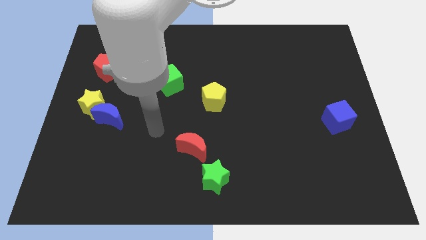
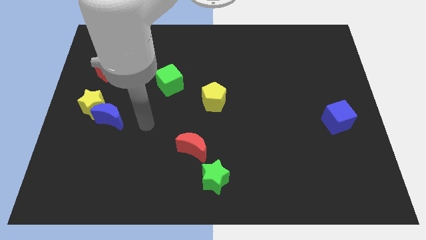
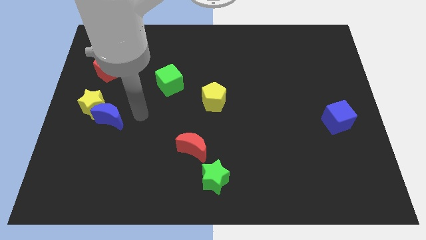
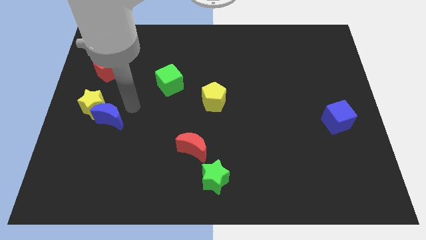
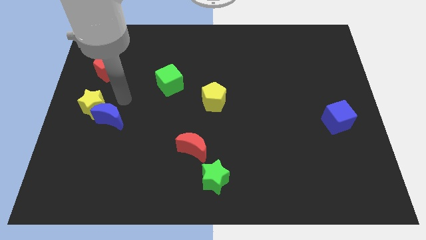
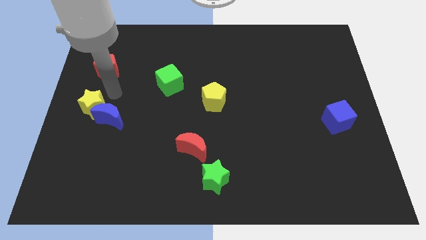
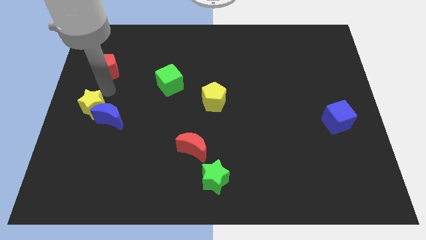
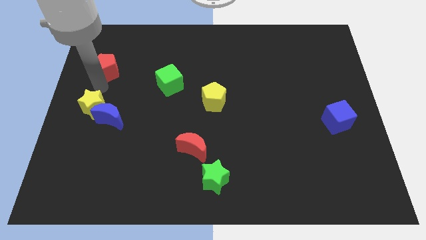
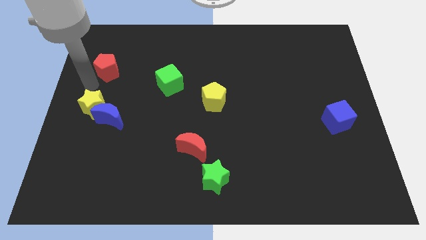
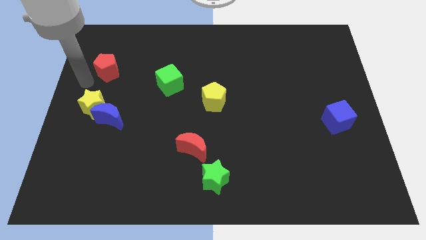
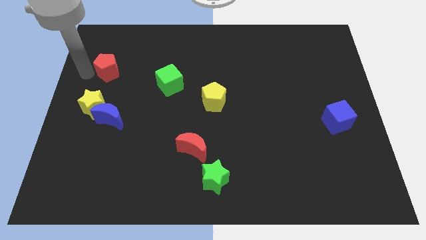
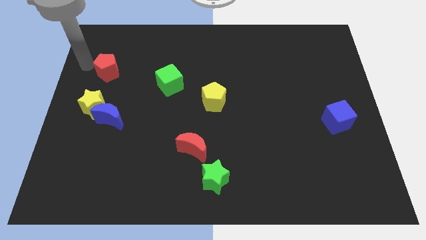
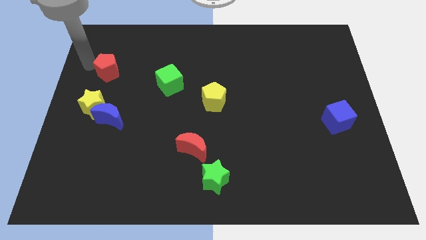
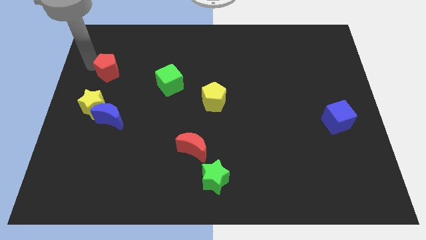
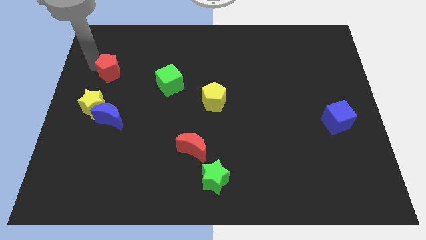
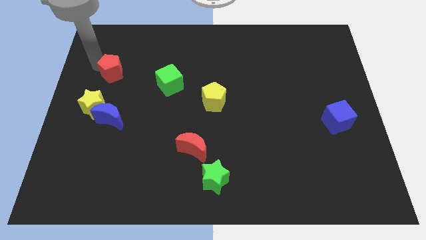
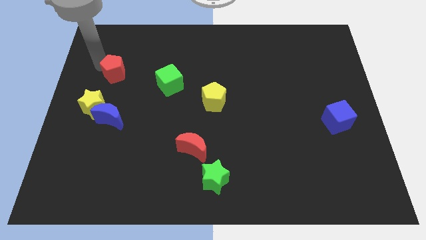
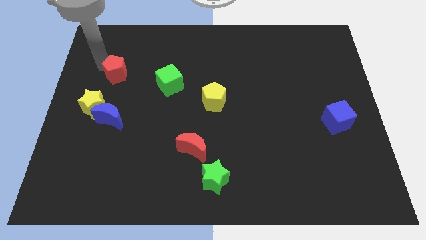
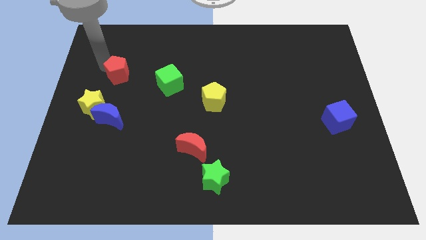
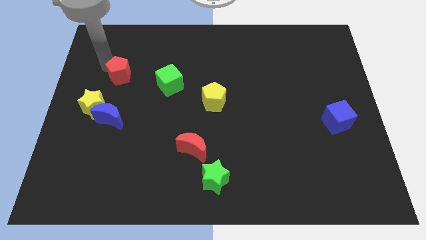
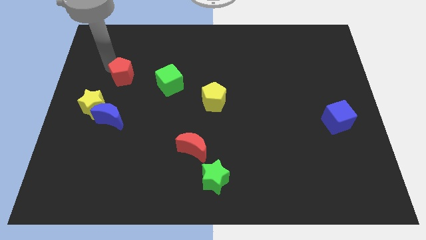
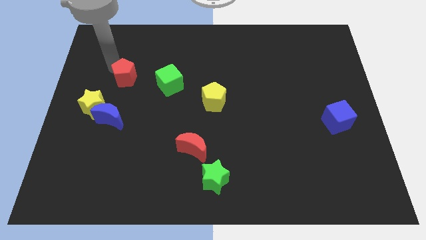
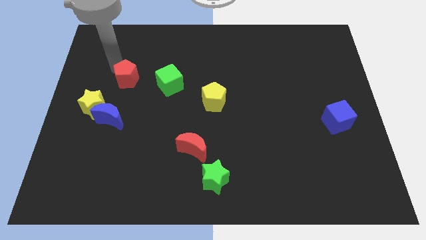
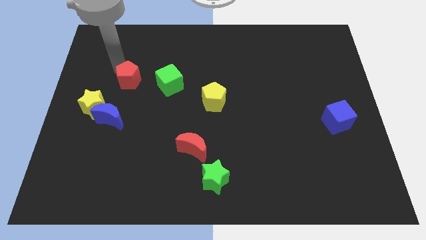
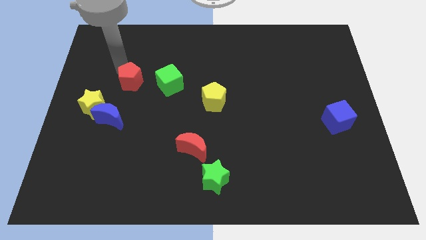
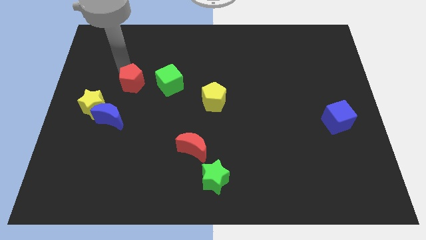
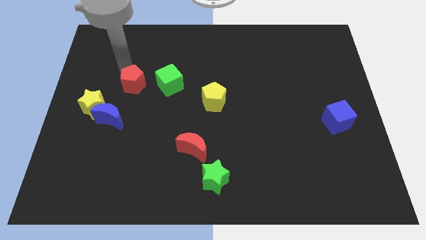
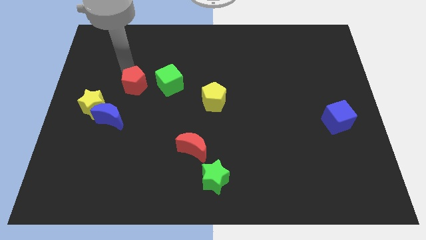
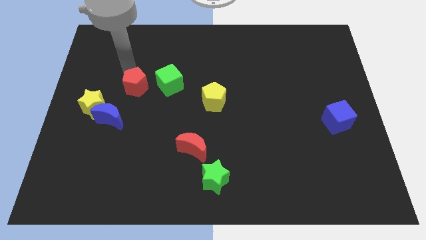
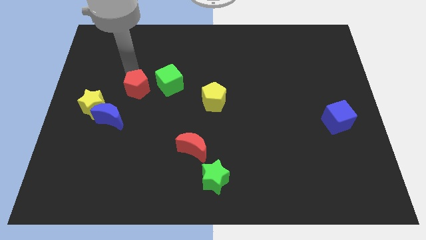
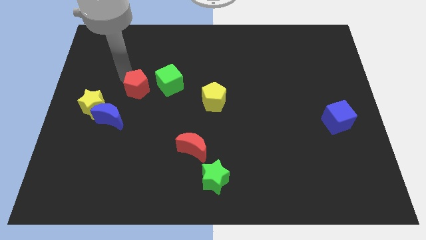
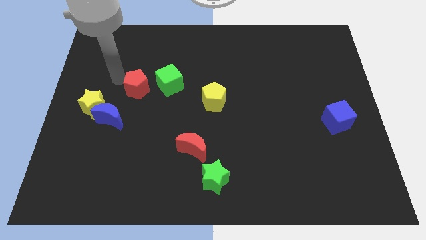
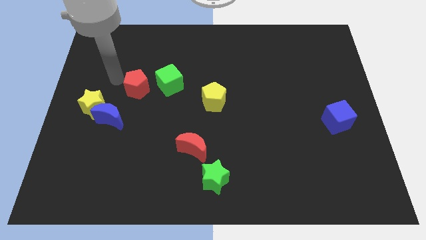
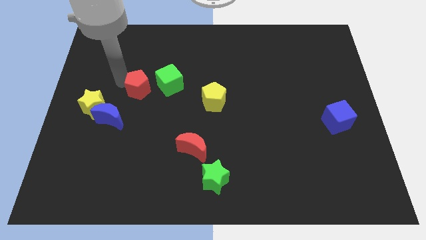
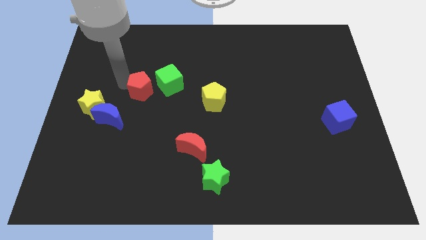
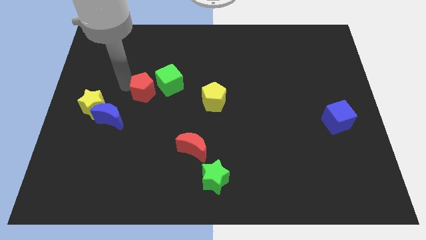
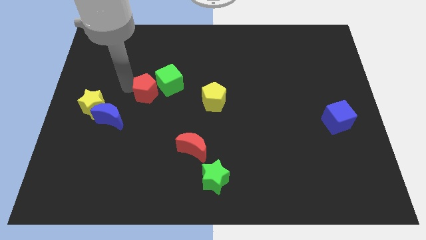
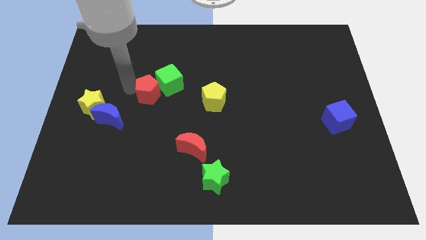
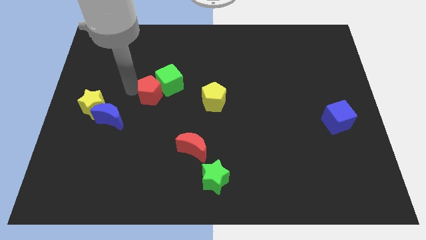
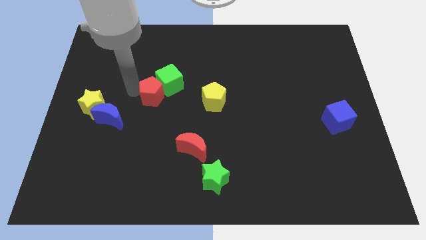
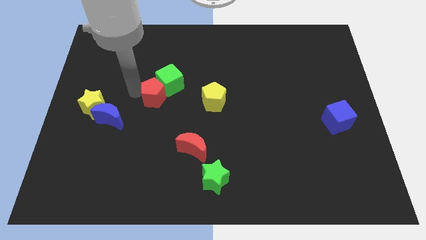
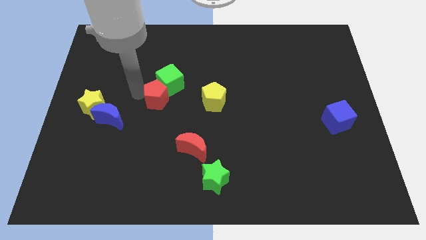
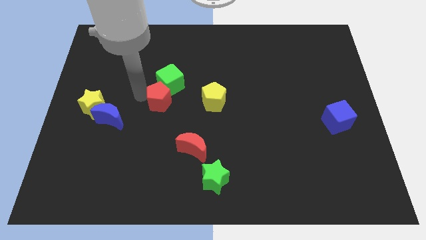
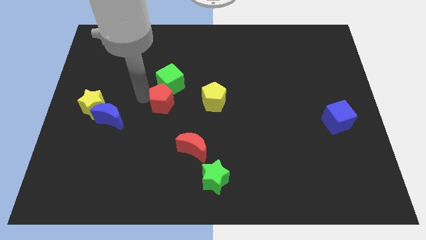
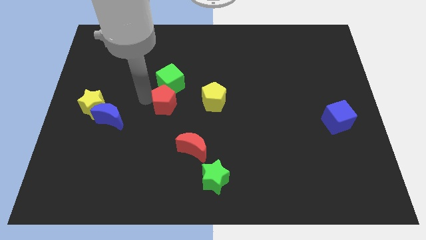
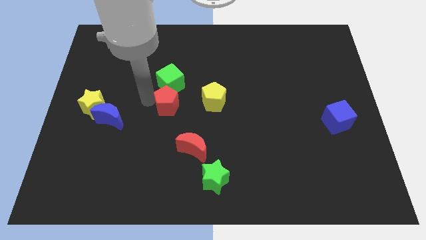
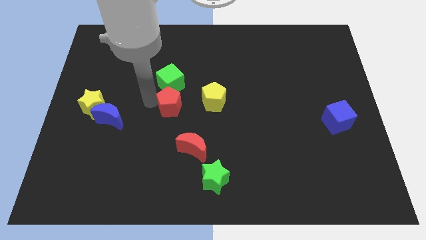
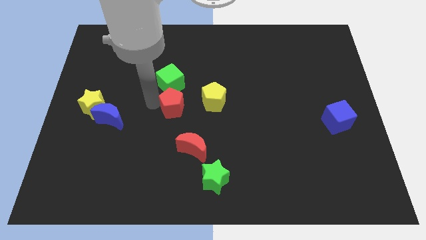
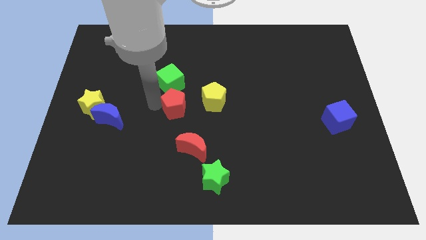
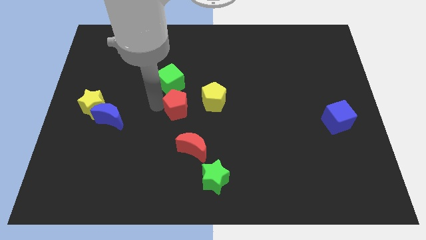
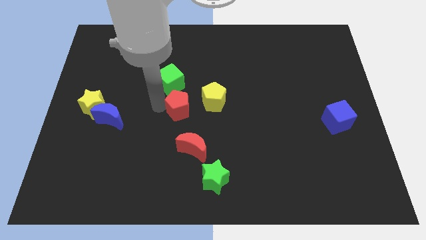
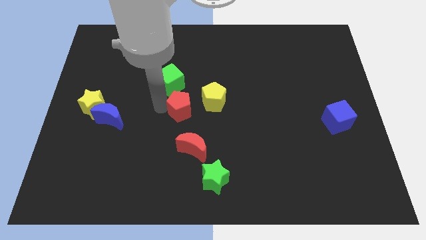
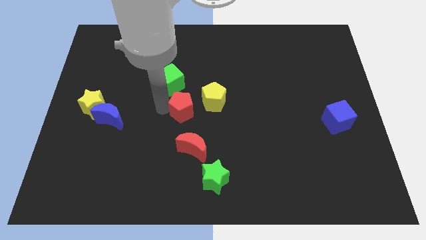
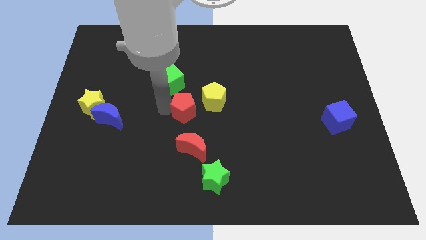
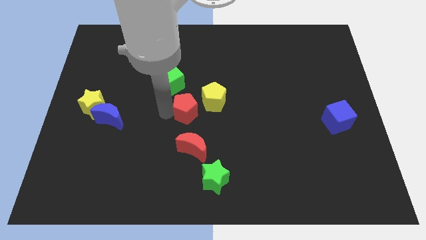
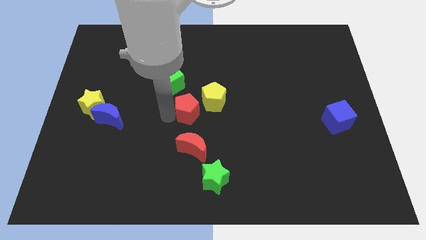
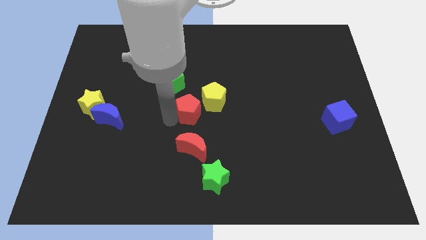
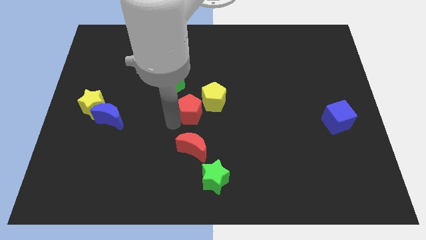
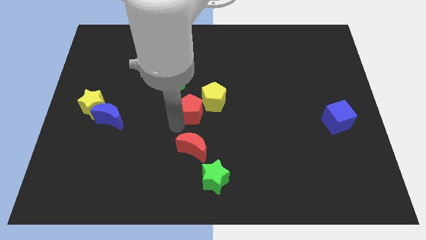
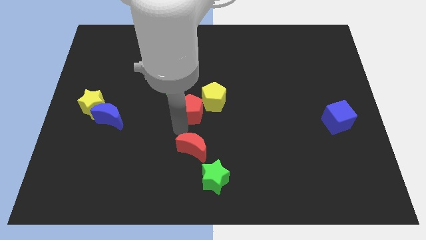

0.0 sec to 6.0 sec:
slide the red pentagon to the yellow pentagon
